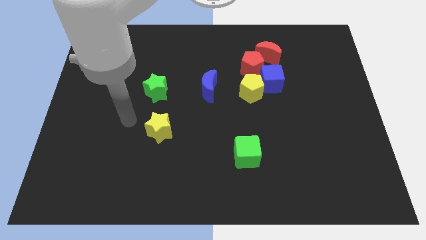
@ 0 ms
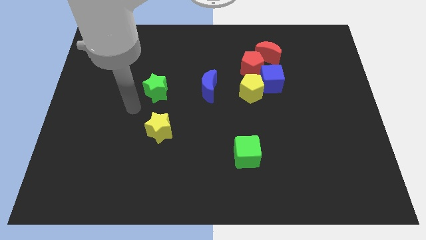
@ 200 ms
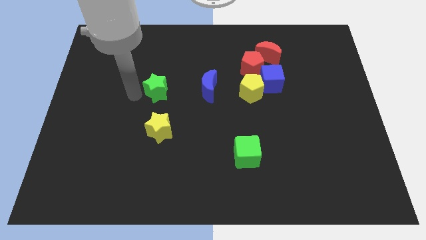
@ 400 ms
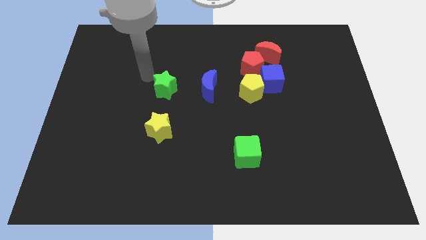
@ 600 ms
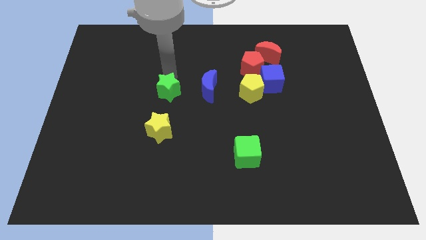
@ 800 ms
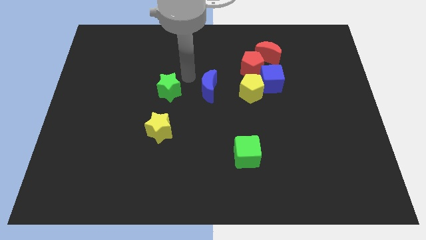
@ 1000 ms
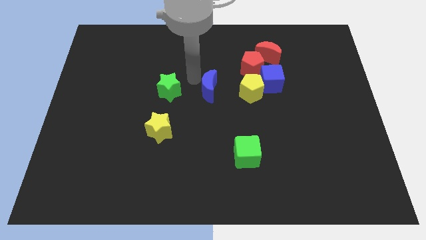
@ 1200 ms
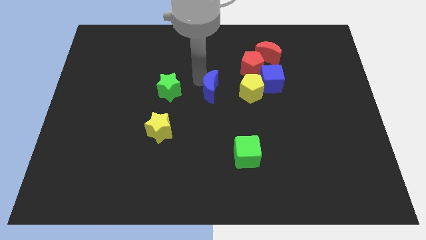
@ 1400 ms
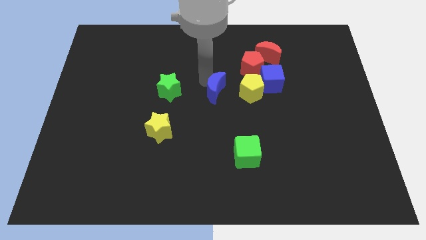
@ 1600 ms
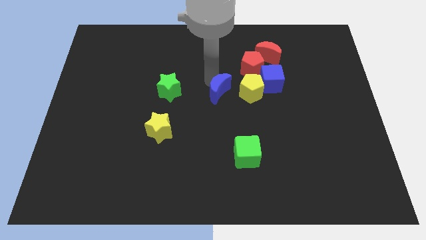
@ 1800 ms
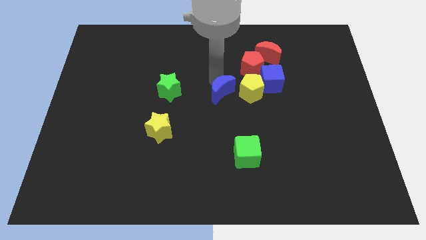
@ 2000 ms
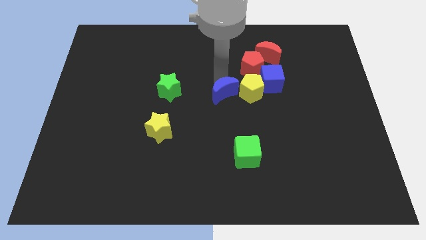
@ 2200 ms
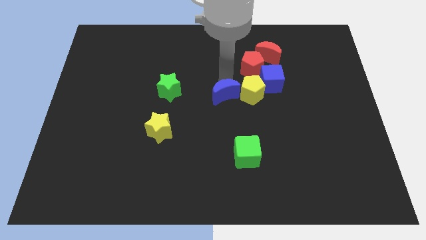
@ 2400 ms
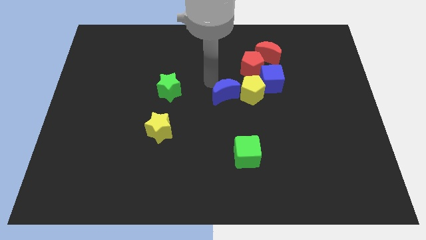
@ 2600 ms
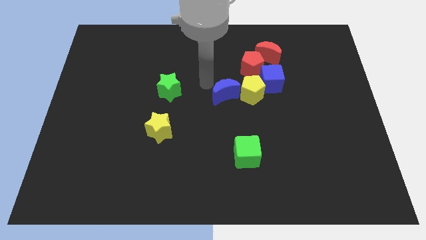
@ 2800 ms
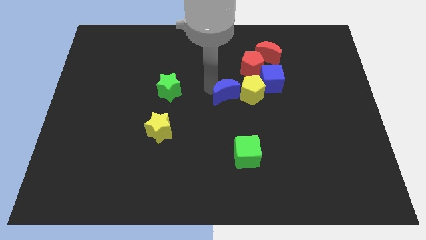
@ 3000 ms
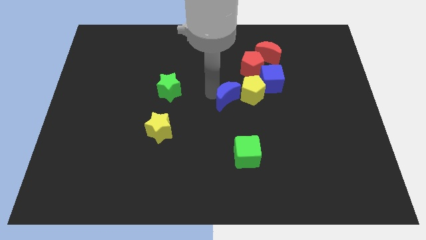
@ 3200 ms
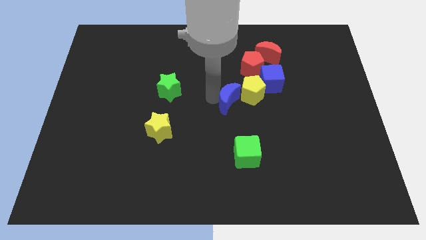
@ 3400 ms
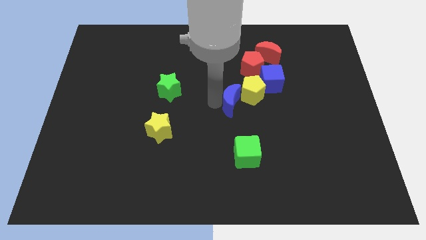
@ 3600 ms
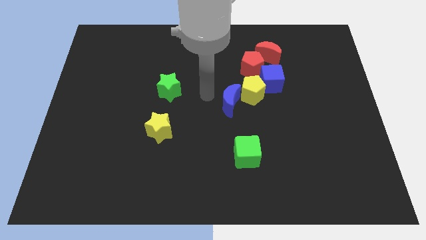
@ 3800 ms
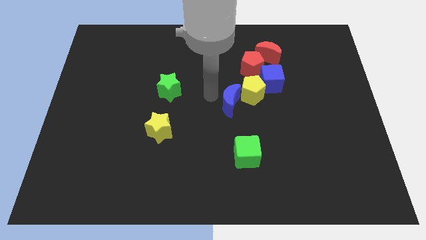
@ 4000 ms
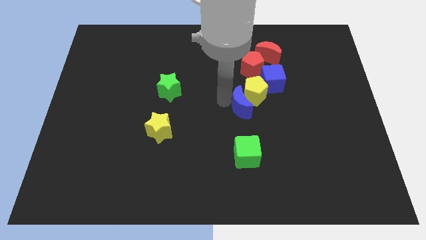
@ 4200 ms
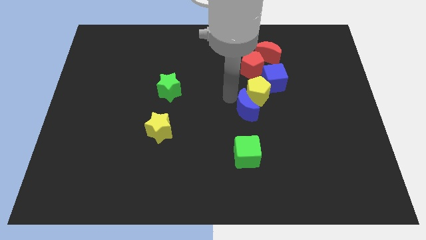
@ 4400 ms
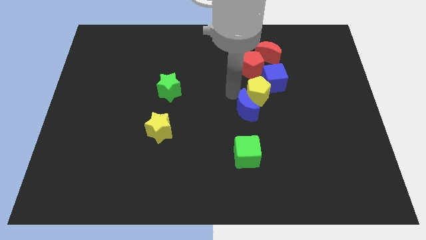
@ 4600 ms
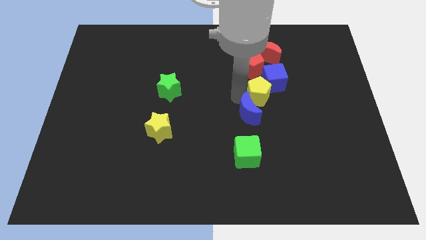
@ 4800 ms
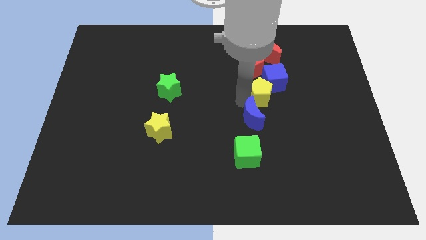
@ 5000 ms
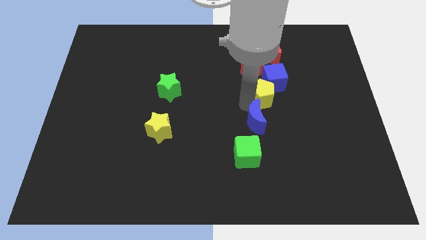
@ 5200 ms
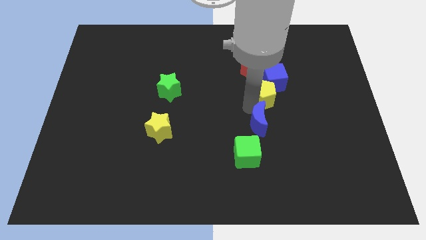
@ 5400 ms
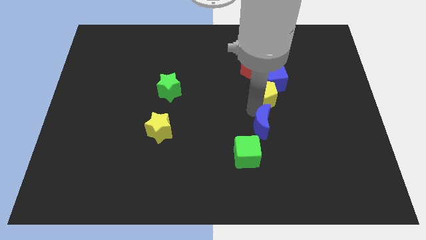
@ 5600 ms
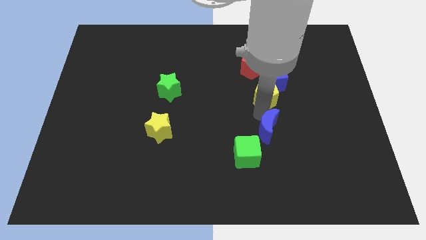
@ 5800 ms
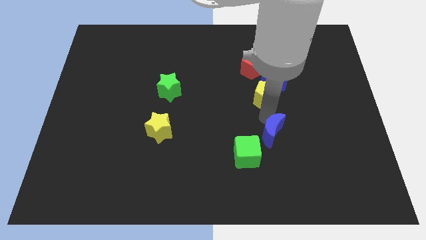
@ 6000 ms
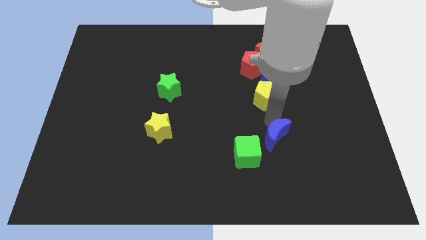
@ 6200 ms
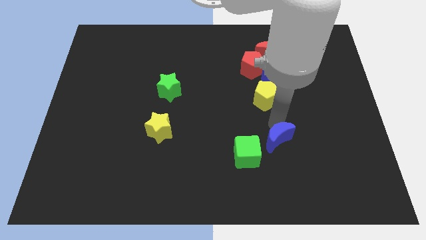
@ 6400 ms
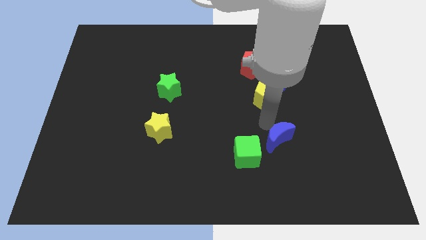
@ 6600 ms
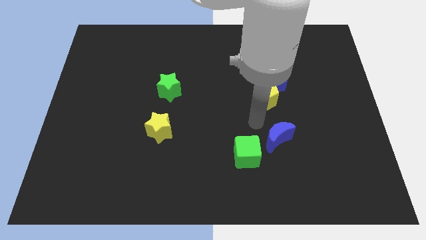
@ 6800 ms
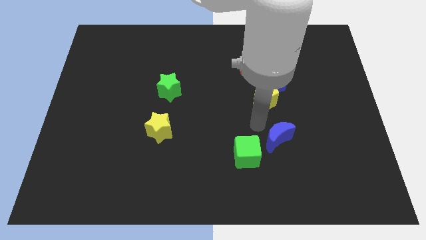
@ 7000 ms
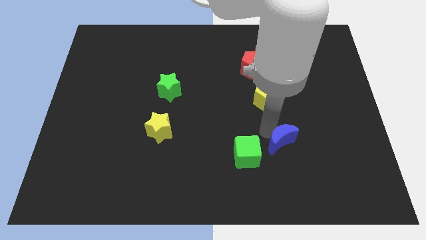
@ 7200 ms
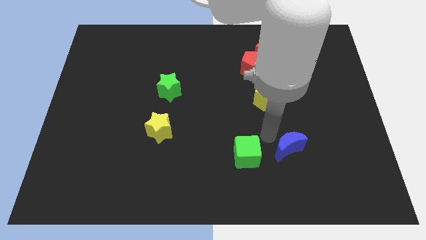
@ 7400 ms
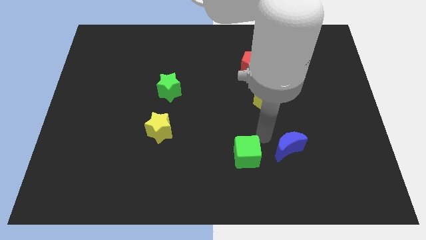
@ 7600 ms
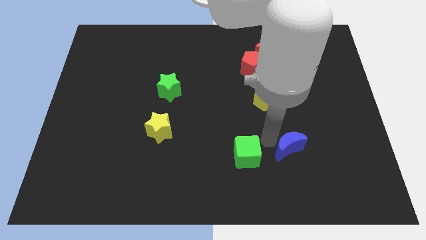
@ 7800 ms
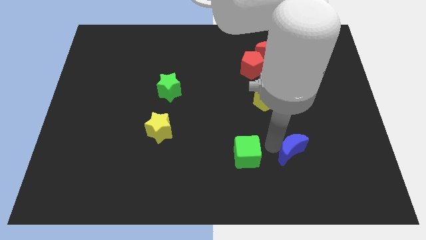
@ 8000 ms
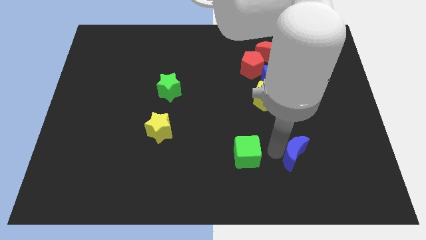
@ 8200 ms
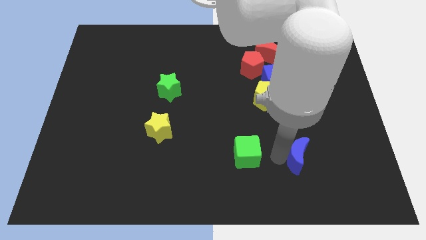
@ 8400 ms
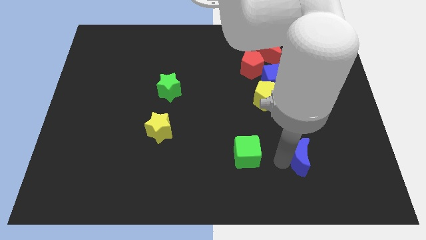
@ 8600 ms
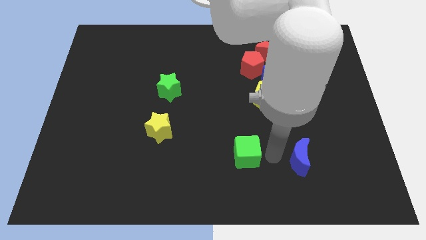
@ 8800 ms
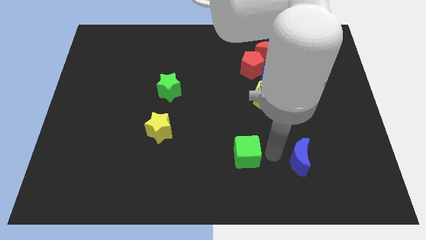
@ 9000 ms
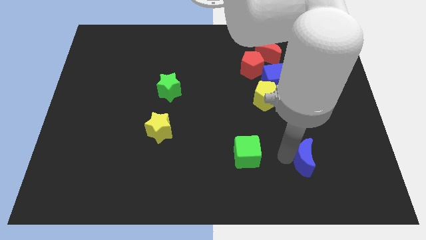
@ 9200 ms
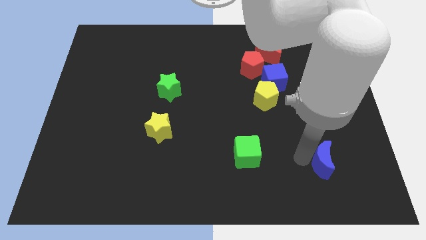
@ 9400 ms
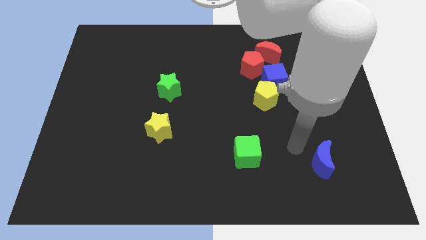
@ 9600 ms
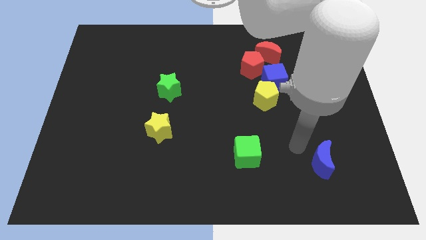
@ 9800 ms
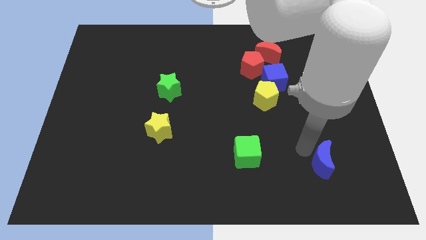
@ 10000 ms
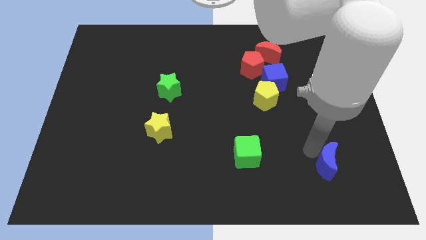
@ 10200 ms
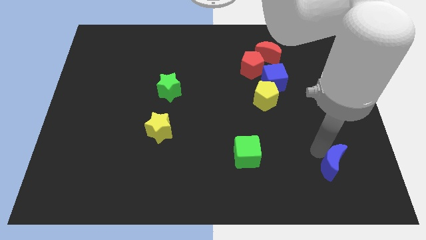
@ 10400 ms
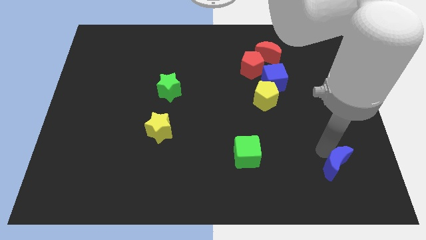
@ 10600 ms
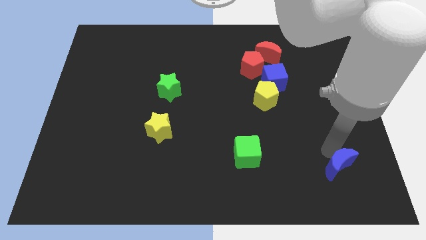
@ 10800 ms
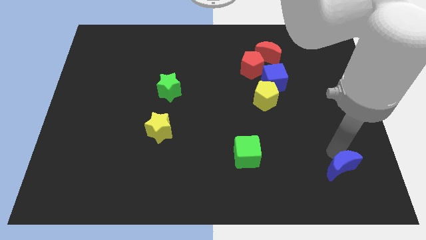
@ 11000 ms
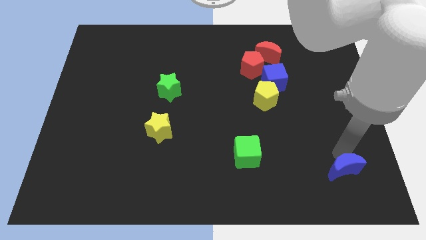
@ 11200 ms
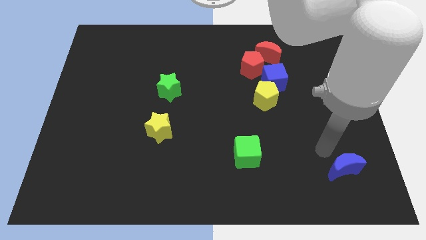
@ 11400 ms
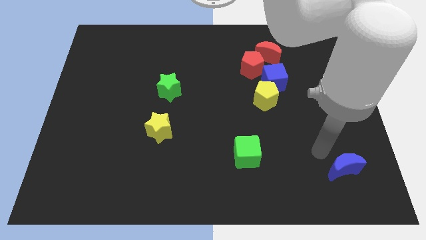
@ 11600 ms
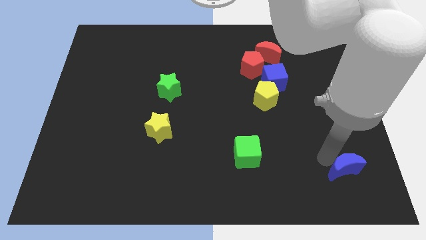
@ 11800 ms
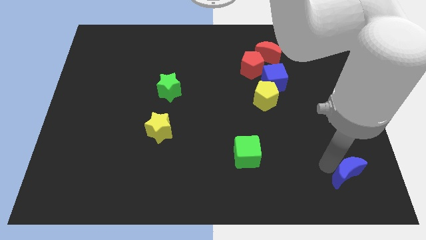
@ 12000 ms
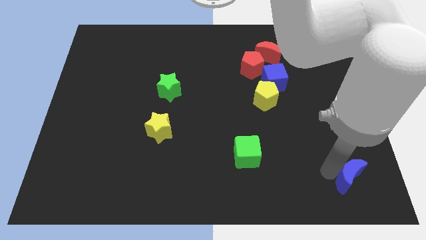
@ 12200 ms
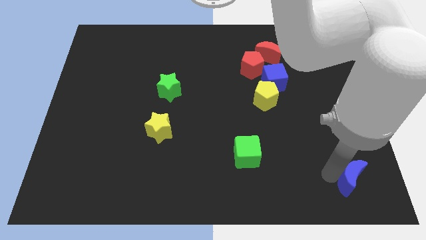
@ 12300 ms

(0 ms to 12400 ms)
slide the blue moon to the bottom right corner

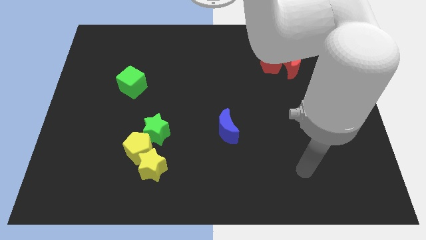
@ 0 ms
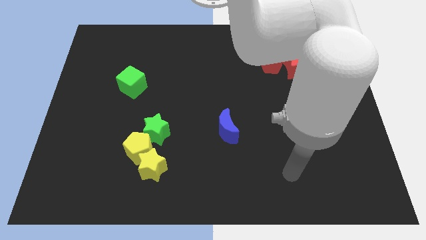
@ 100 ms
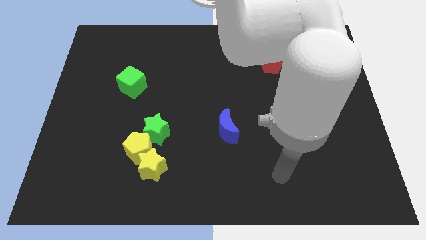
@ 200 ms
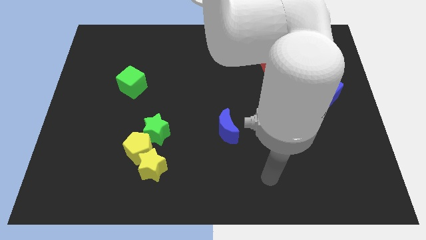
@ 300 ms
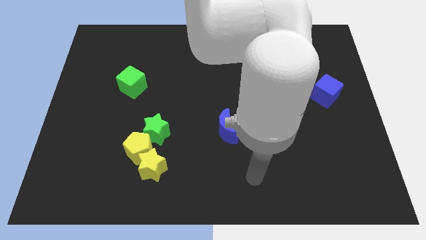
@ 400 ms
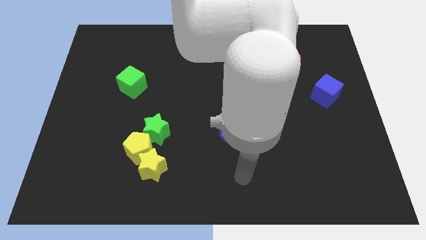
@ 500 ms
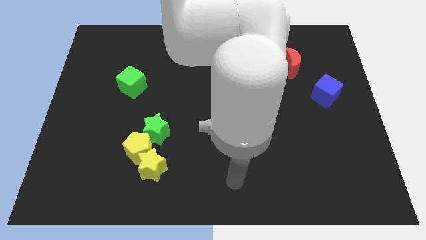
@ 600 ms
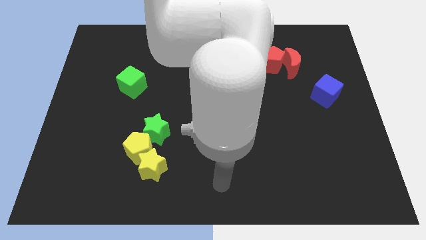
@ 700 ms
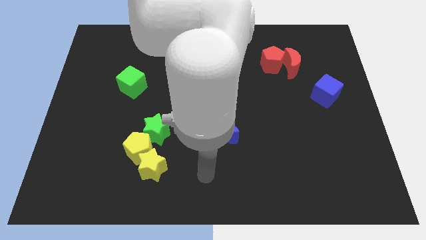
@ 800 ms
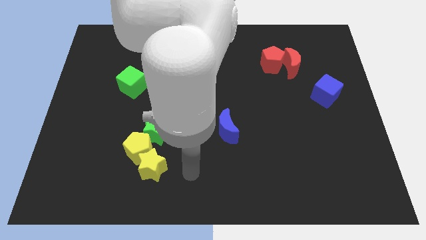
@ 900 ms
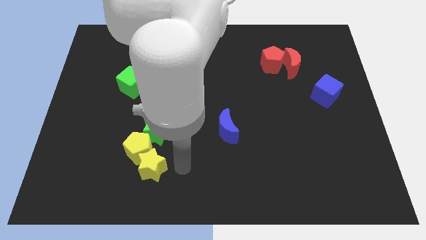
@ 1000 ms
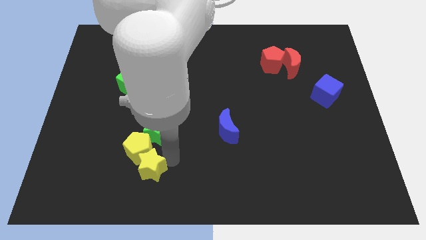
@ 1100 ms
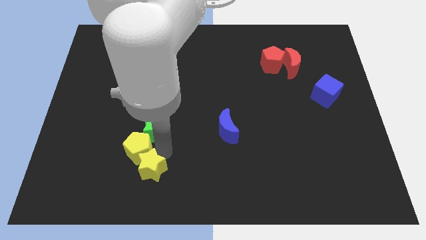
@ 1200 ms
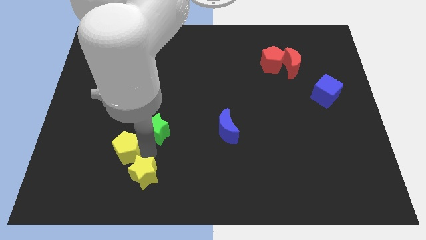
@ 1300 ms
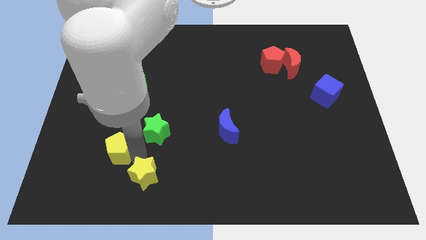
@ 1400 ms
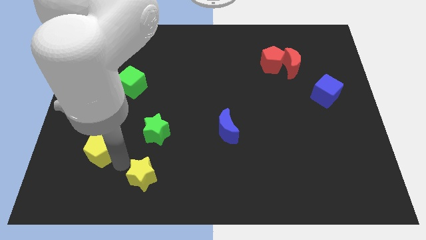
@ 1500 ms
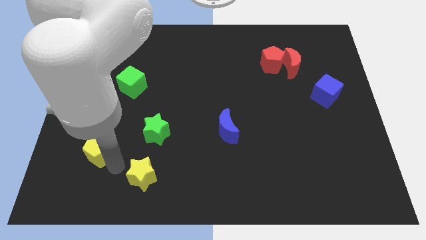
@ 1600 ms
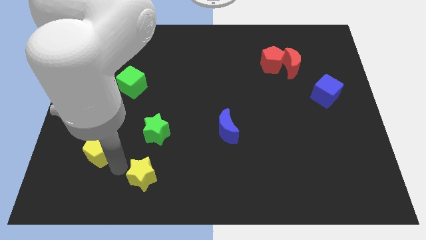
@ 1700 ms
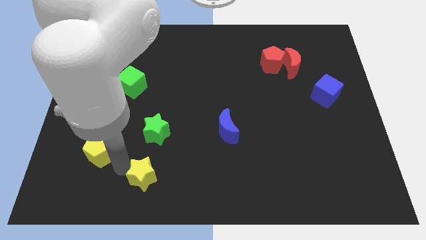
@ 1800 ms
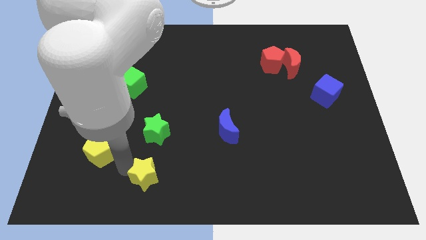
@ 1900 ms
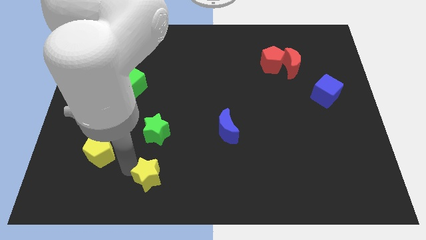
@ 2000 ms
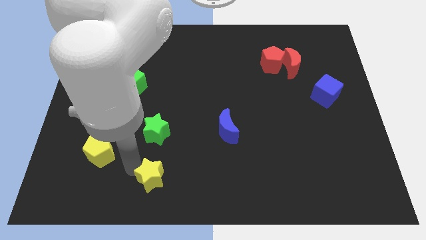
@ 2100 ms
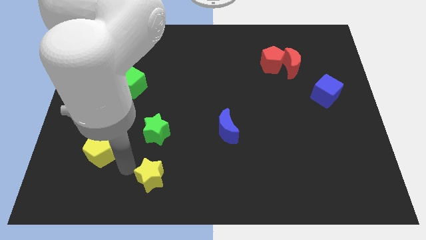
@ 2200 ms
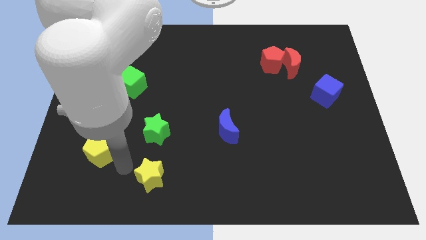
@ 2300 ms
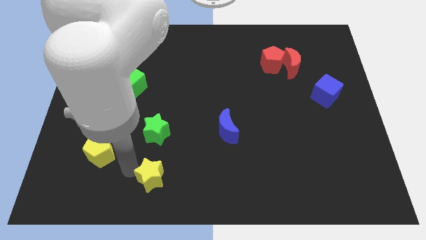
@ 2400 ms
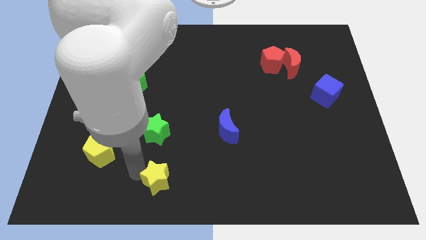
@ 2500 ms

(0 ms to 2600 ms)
put the yellow star to the bottom
